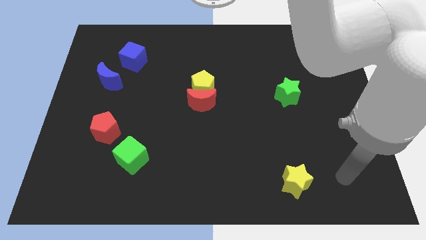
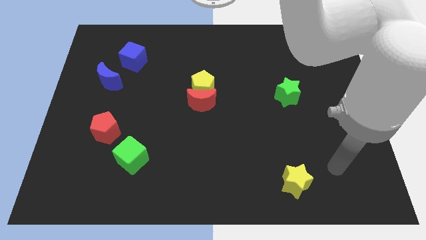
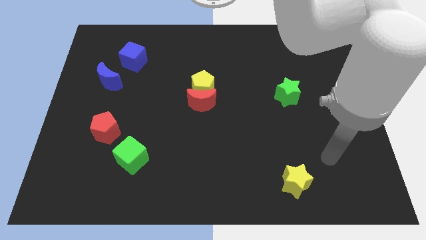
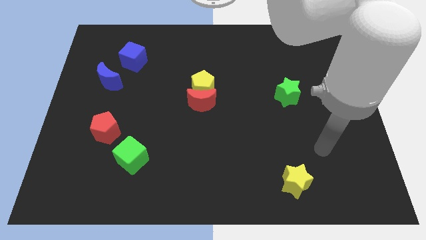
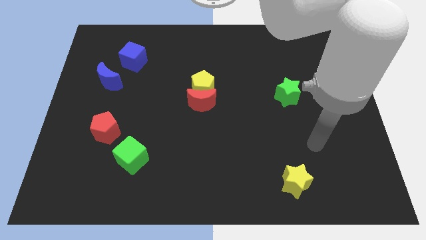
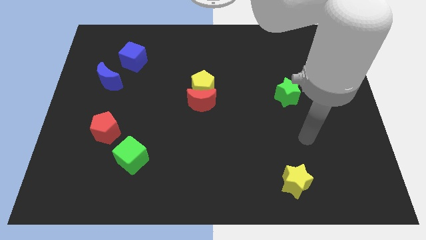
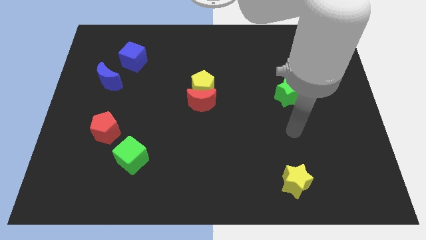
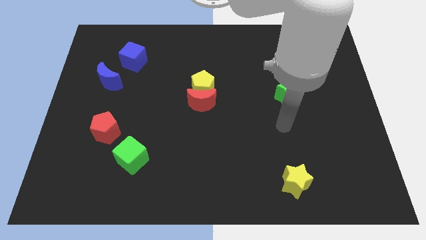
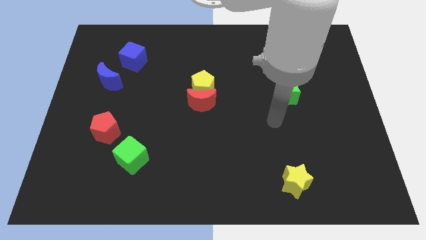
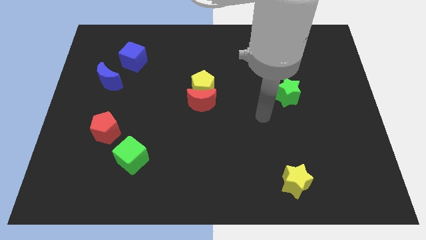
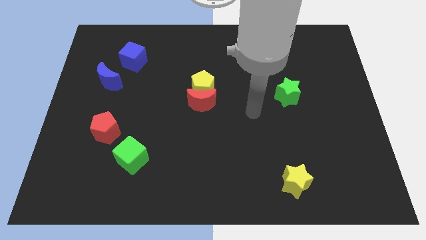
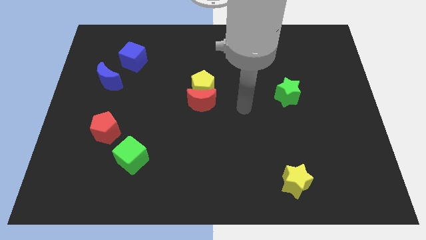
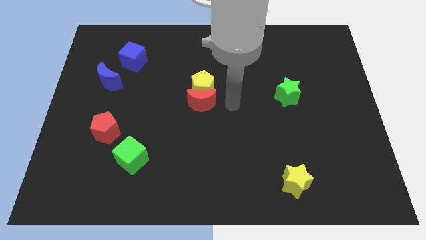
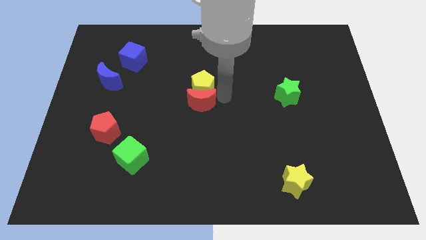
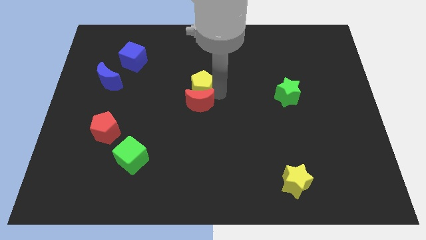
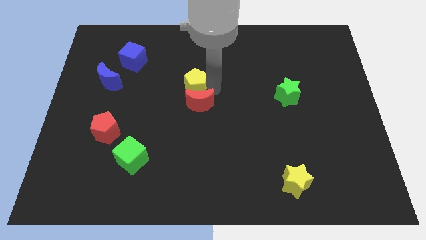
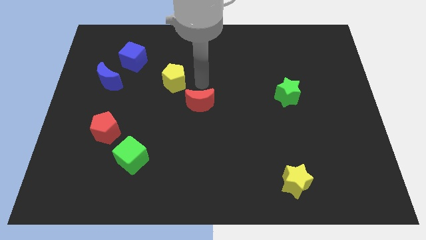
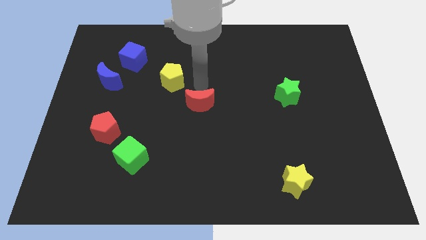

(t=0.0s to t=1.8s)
separate the red moon from the yellow pentagon

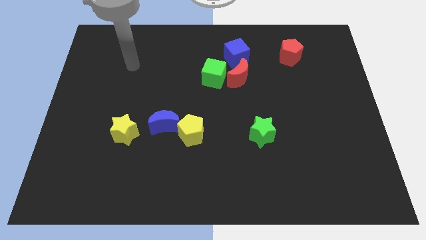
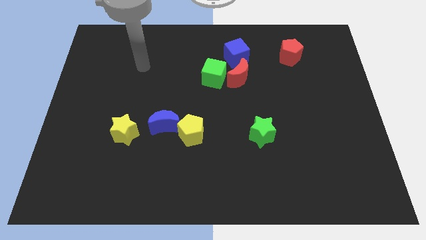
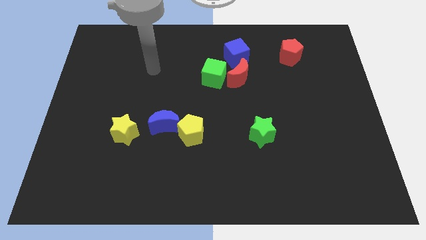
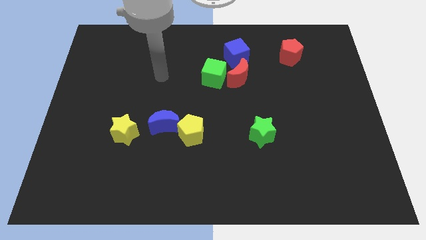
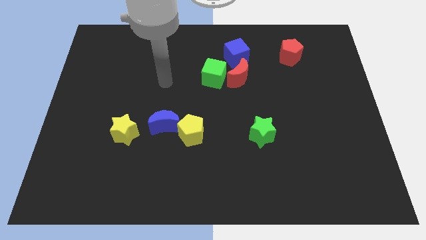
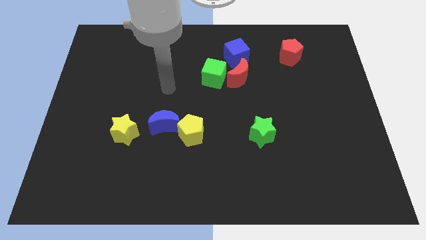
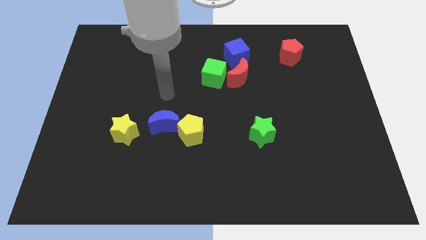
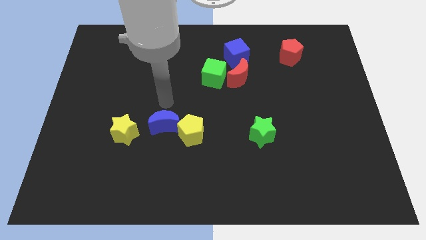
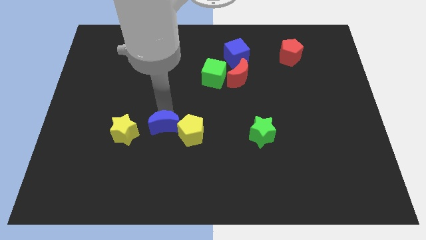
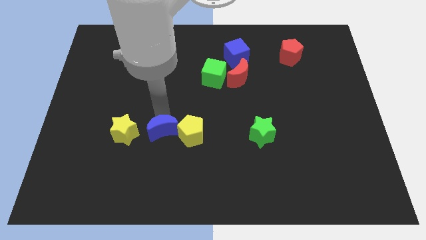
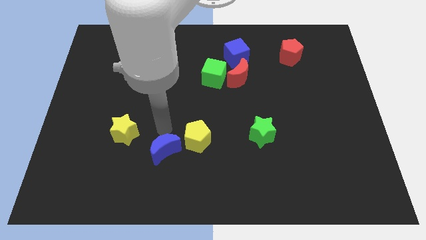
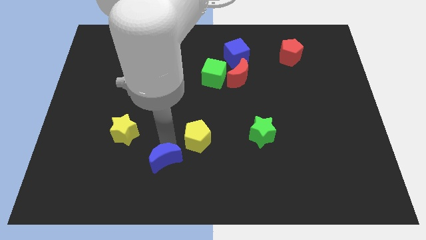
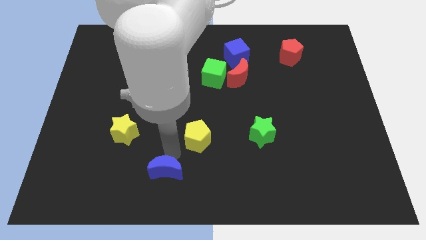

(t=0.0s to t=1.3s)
move the yellow pentagon away from the blue moon

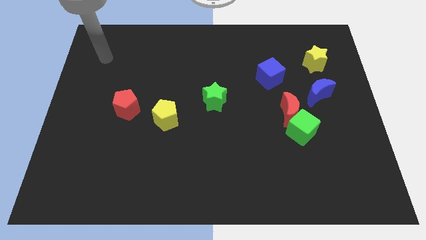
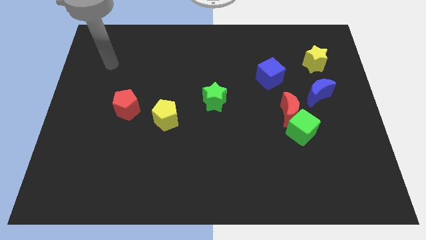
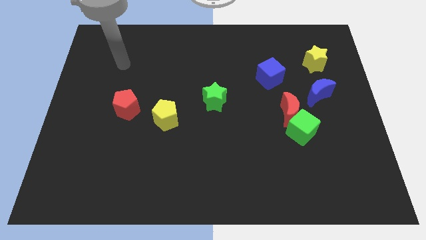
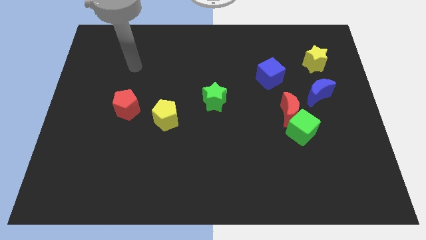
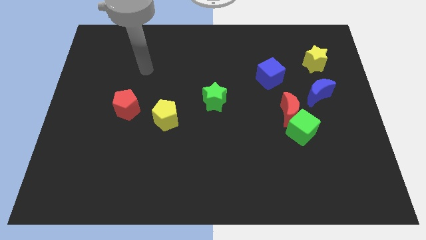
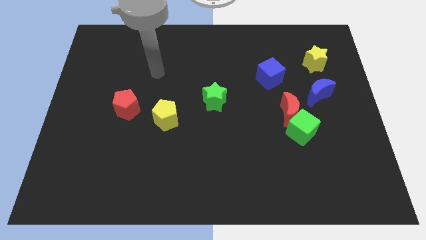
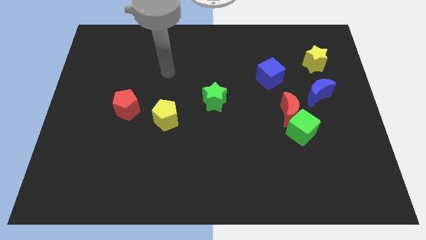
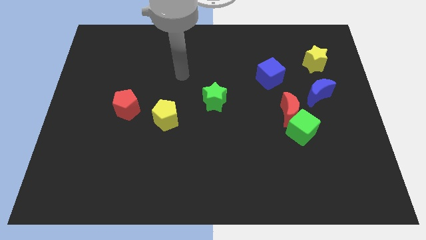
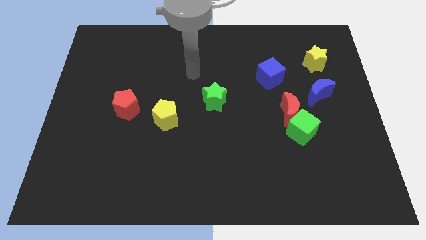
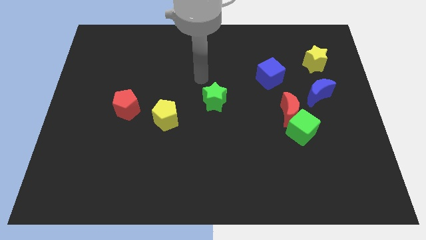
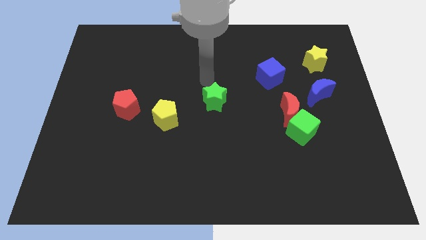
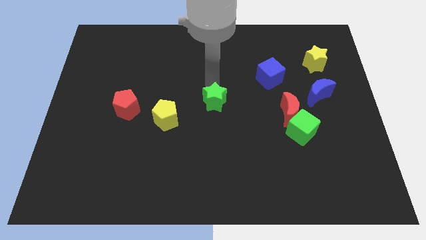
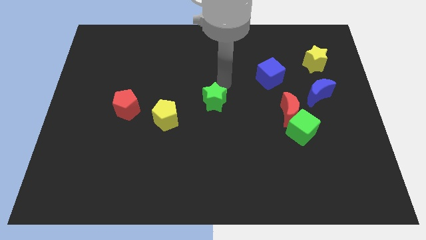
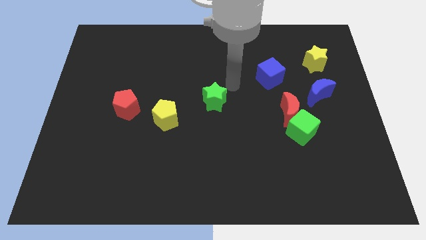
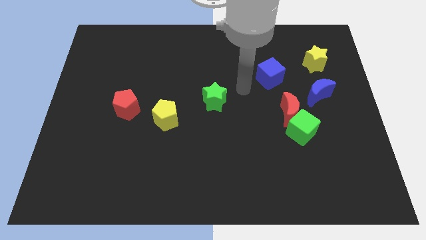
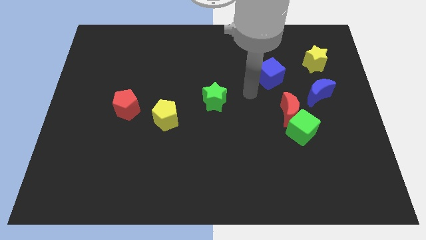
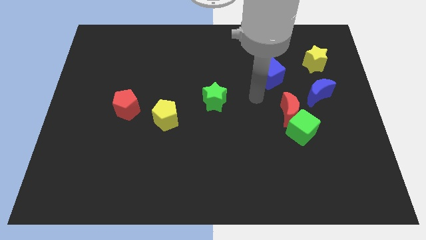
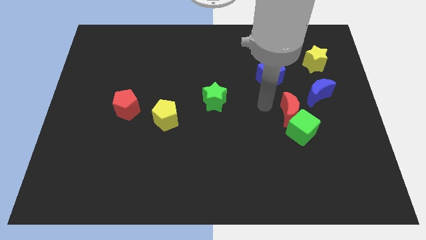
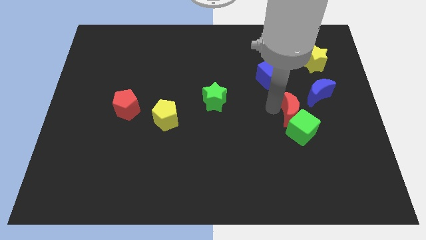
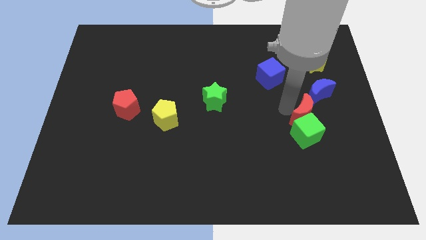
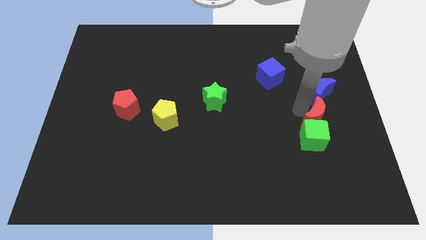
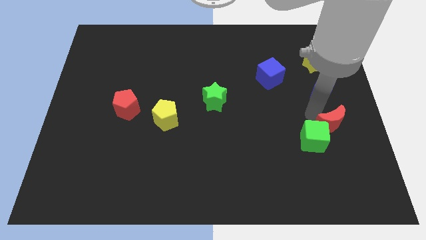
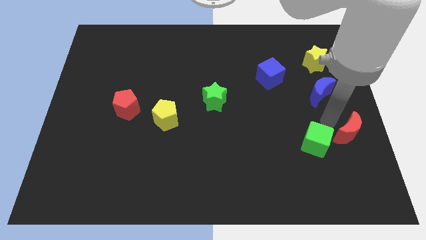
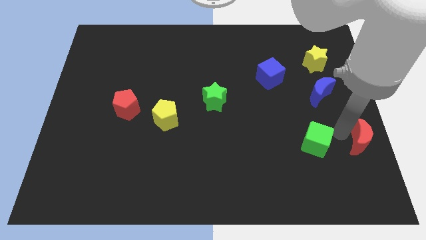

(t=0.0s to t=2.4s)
move the green cube away from the red moon

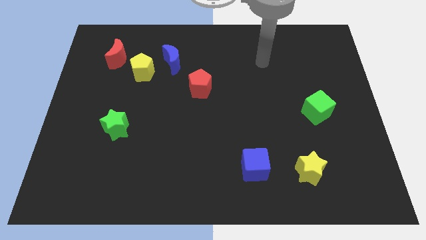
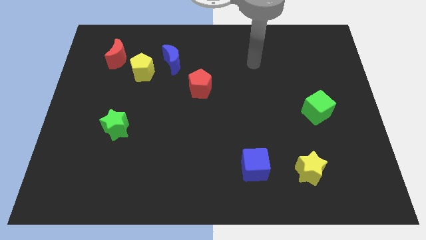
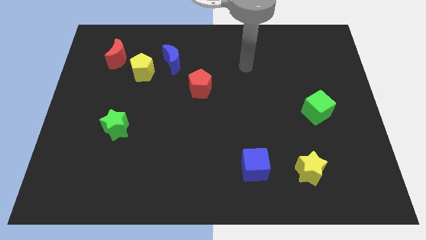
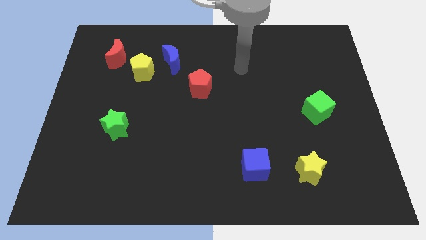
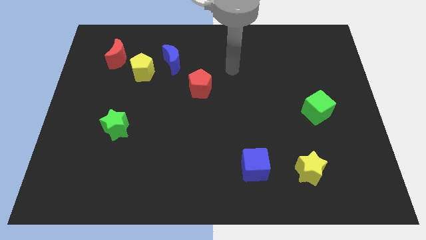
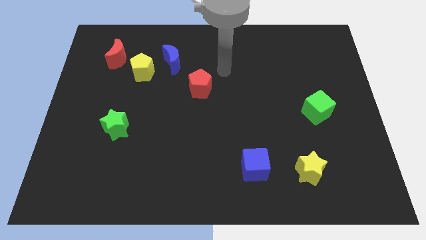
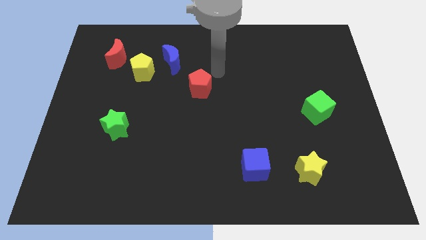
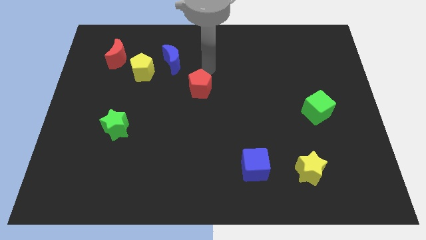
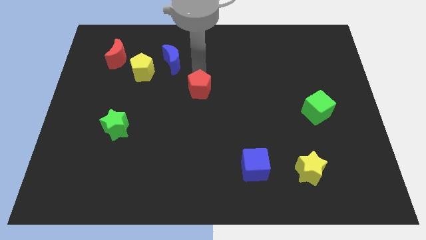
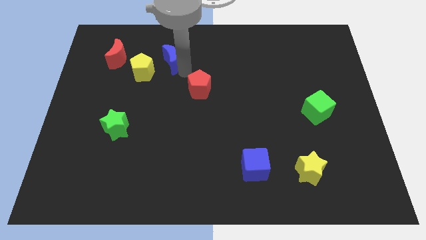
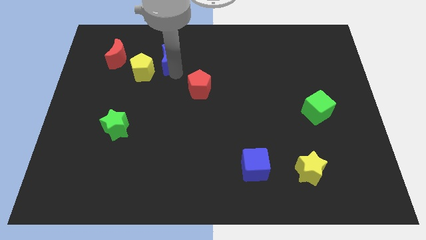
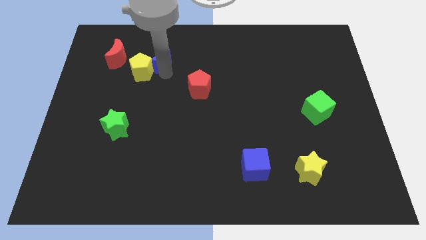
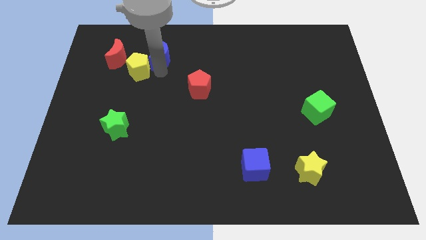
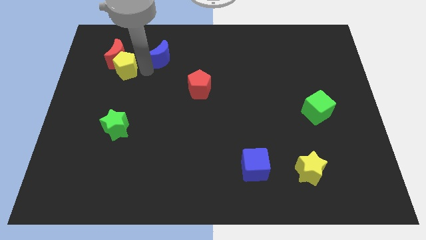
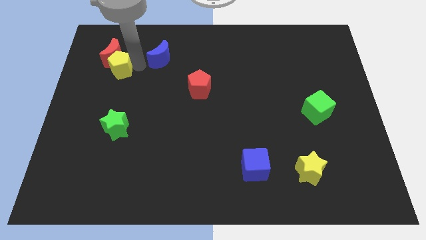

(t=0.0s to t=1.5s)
pull the blue moon apart from the yellow pentagon

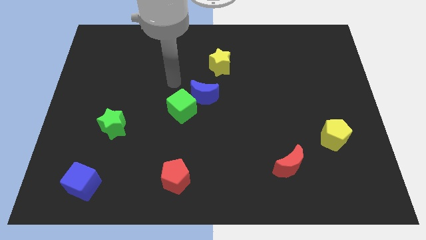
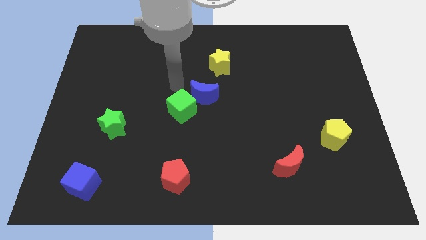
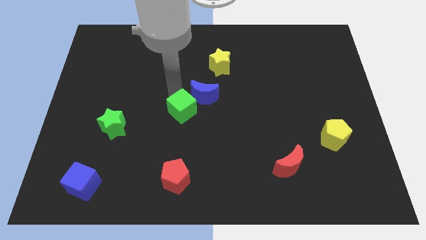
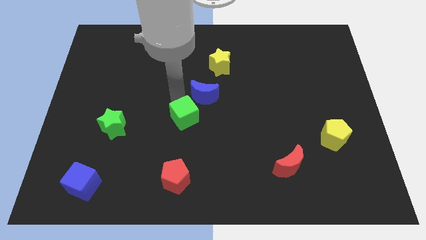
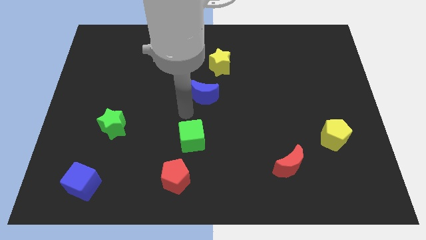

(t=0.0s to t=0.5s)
separate the blue moon from the green cube

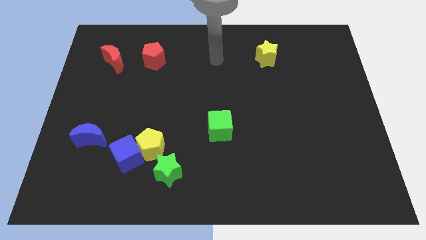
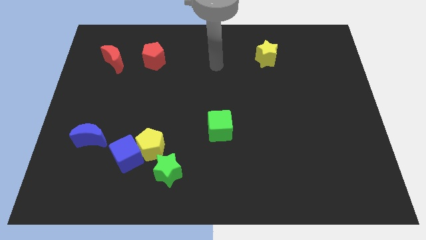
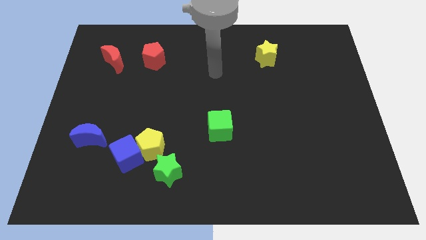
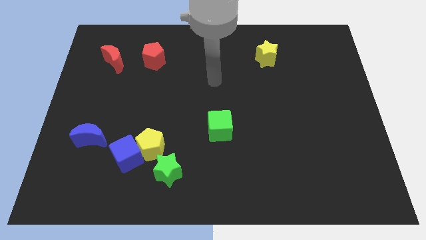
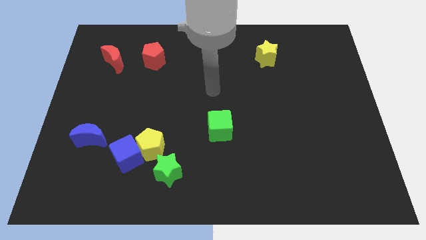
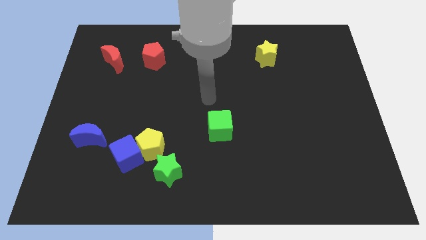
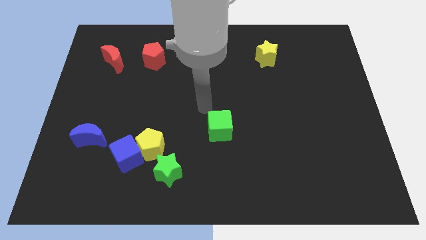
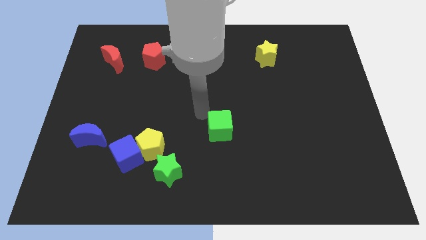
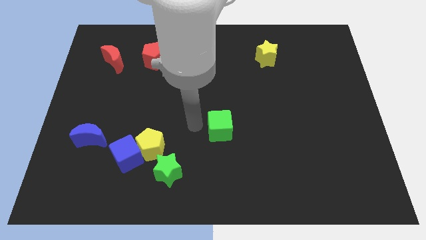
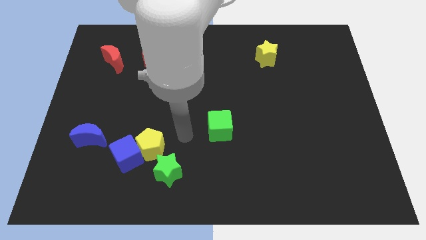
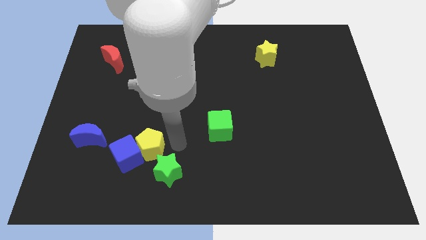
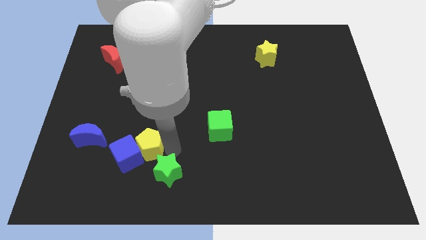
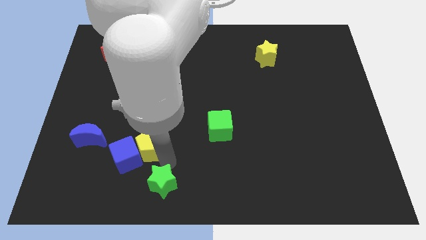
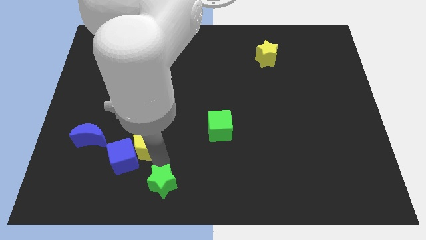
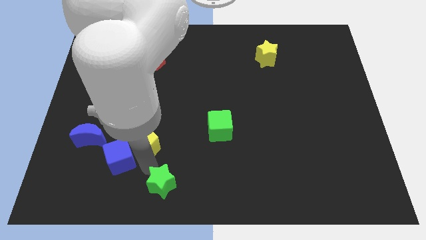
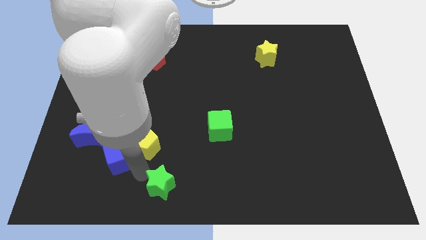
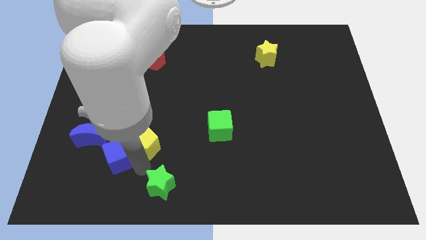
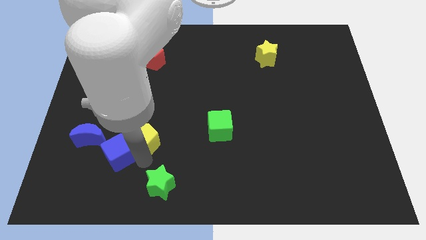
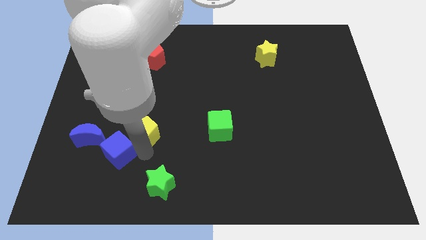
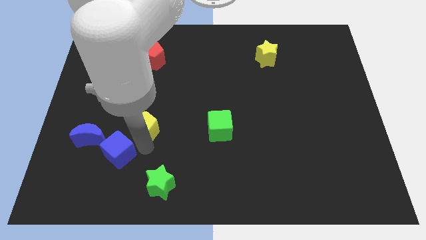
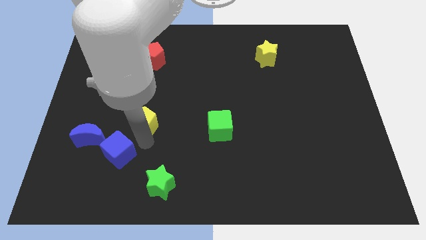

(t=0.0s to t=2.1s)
move the yellow pentagon away from the blue cube and green star
